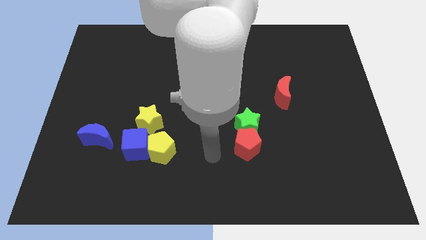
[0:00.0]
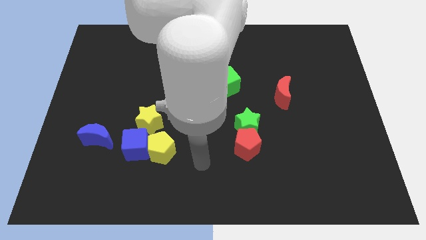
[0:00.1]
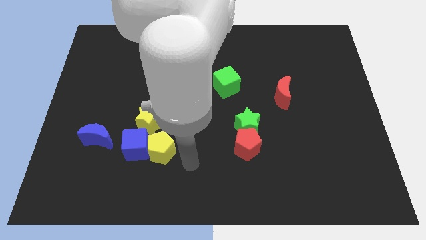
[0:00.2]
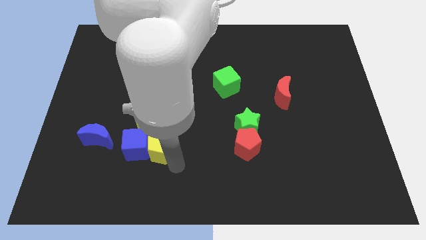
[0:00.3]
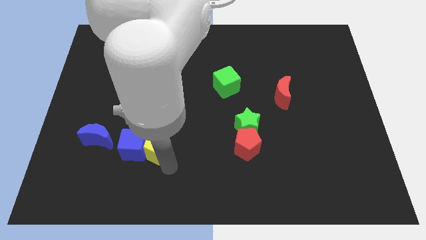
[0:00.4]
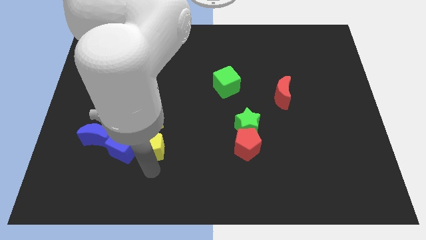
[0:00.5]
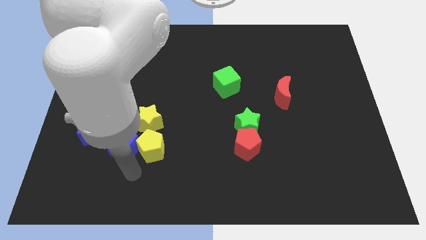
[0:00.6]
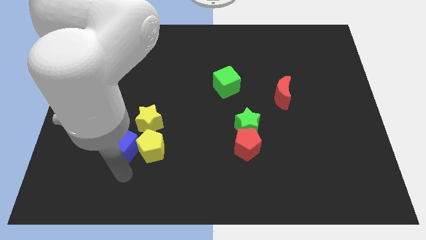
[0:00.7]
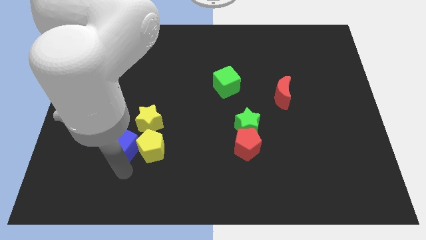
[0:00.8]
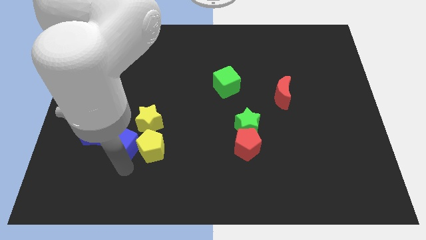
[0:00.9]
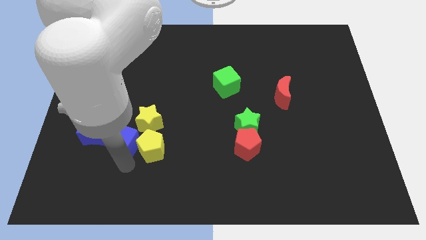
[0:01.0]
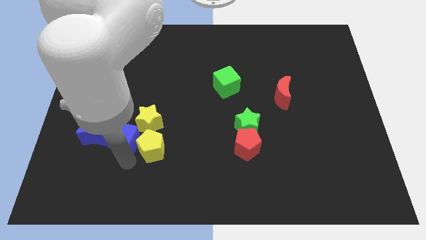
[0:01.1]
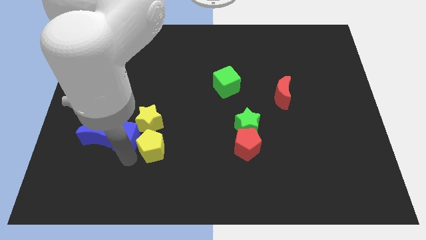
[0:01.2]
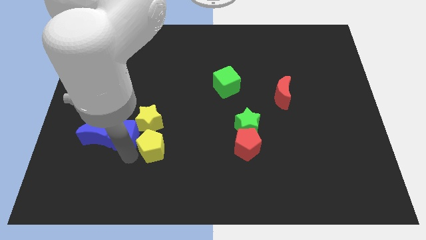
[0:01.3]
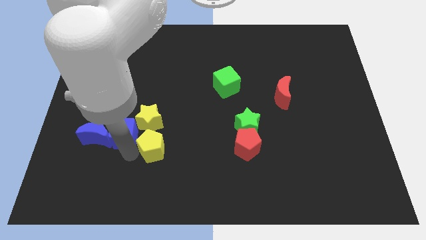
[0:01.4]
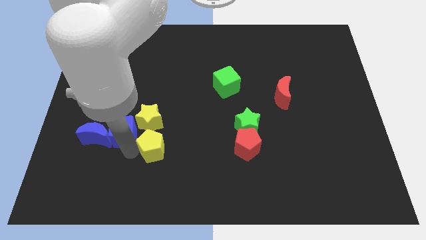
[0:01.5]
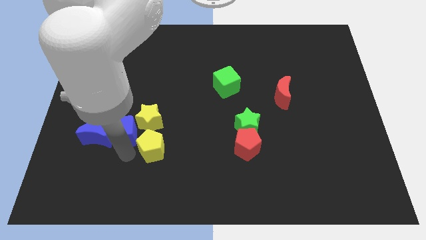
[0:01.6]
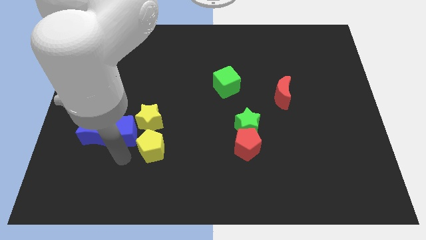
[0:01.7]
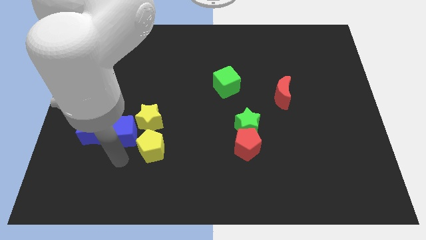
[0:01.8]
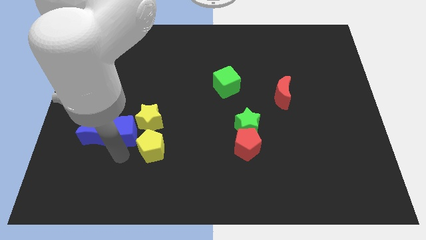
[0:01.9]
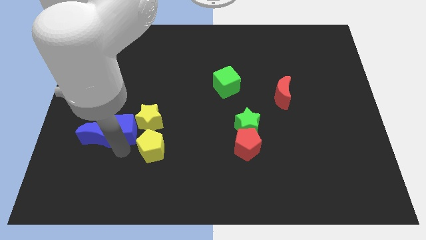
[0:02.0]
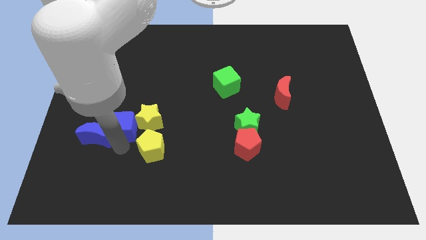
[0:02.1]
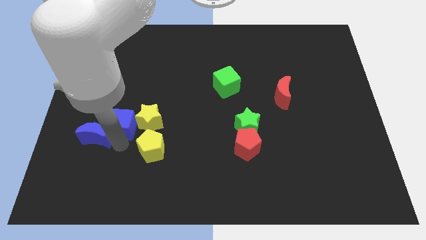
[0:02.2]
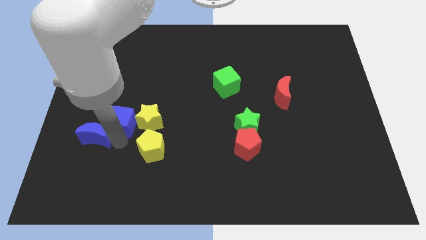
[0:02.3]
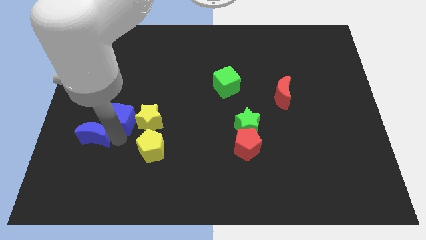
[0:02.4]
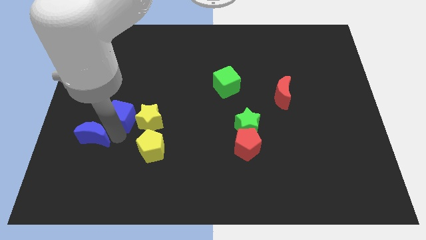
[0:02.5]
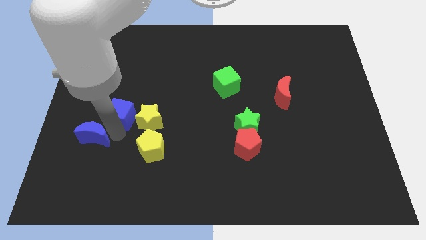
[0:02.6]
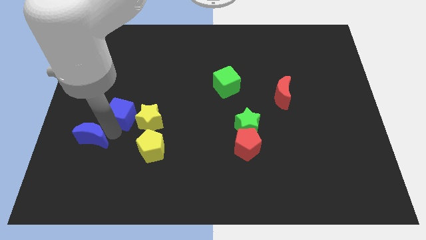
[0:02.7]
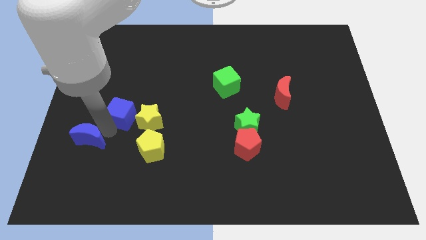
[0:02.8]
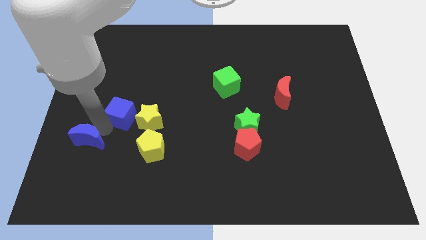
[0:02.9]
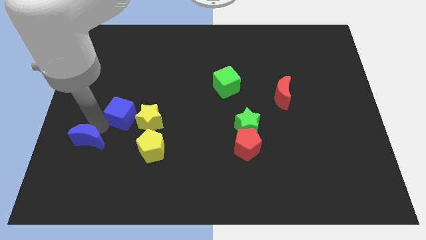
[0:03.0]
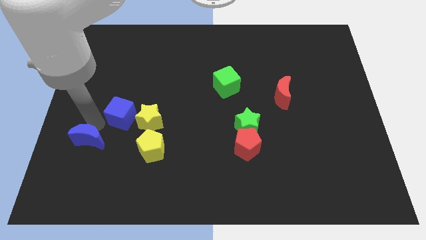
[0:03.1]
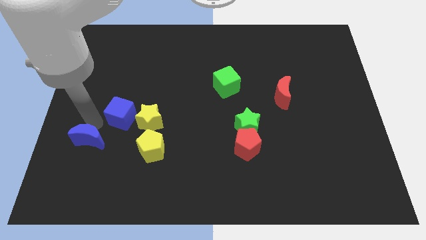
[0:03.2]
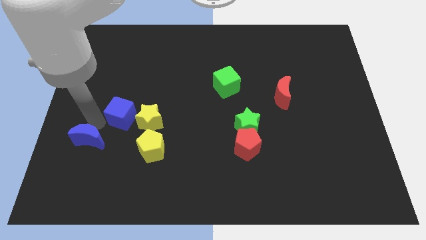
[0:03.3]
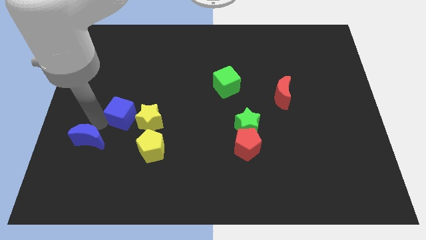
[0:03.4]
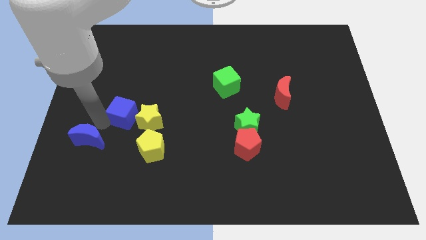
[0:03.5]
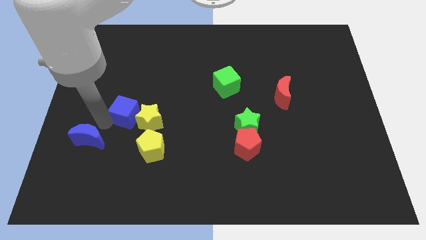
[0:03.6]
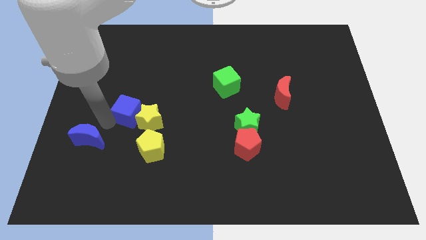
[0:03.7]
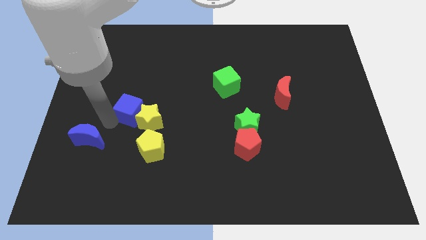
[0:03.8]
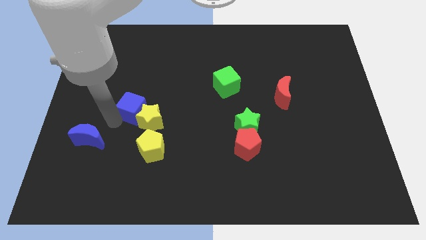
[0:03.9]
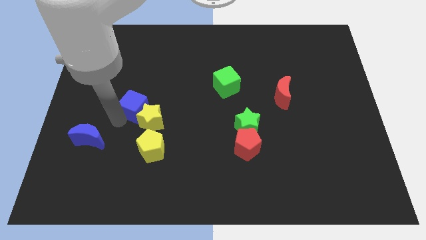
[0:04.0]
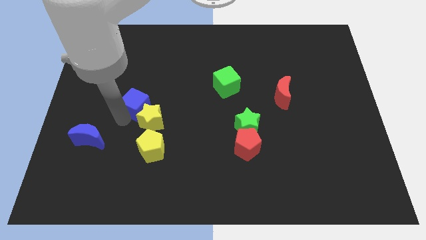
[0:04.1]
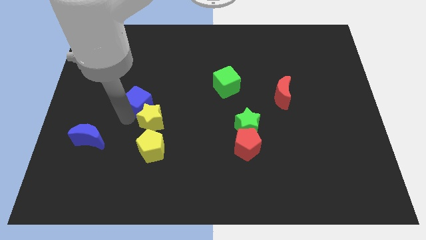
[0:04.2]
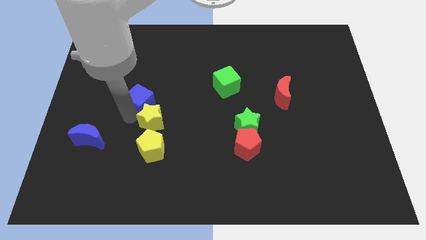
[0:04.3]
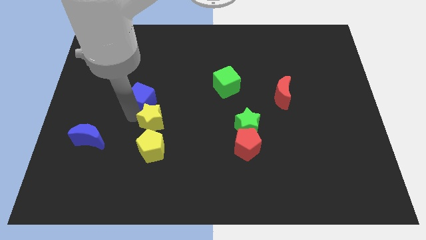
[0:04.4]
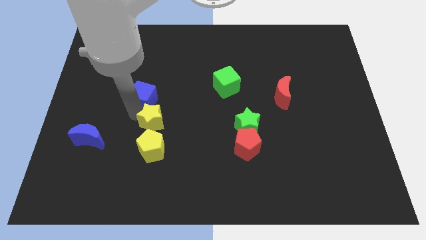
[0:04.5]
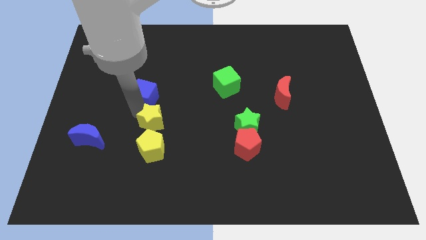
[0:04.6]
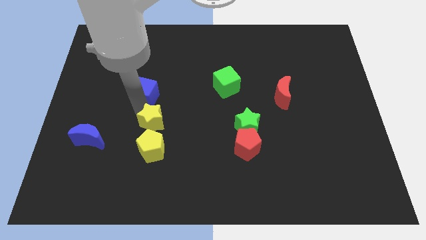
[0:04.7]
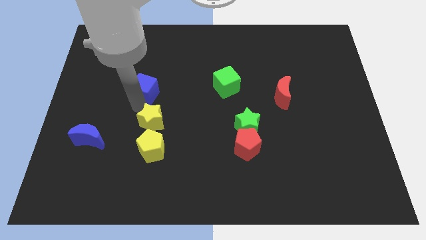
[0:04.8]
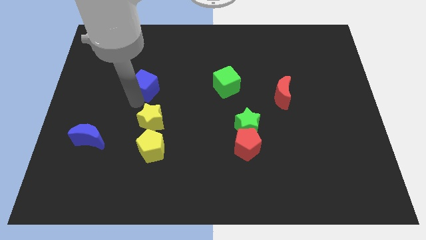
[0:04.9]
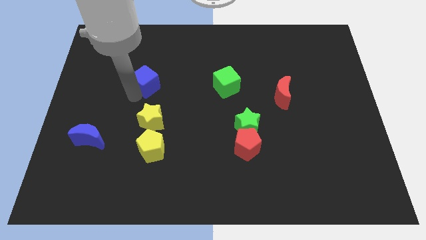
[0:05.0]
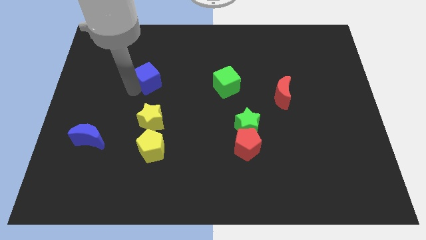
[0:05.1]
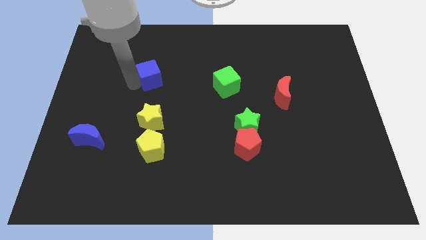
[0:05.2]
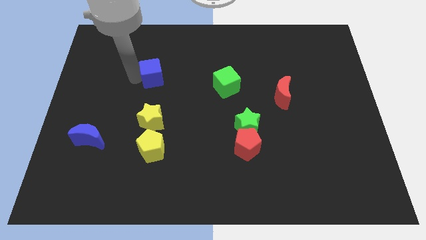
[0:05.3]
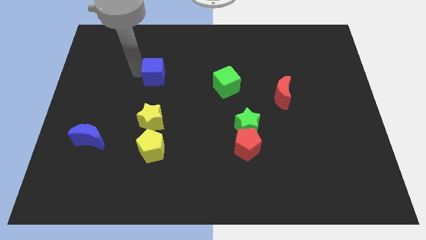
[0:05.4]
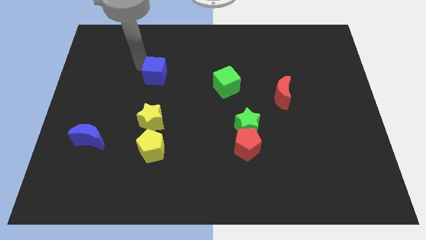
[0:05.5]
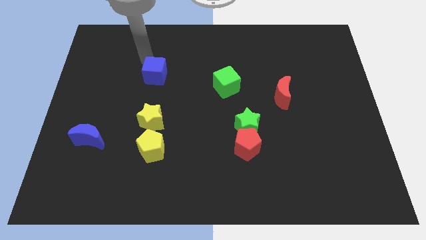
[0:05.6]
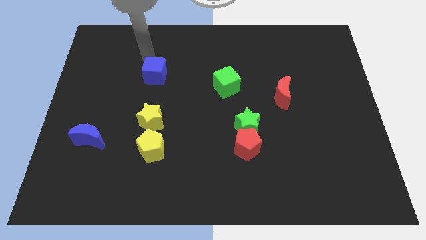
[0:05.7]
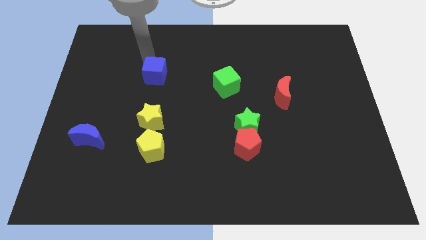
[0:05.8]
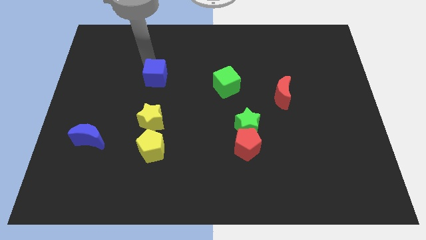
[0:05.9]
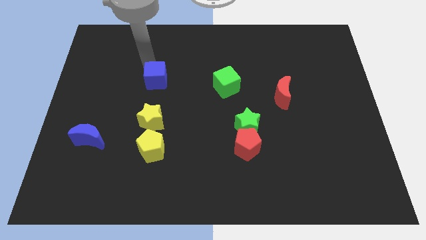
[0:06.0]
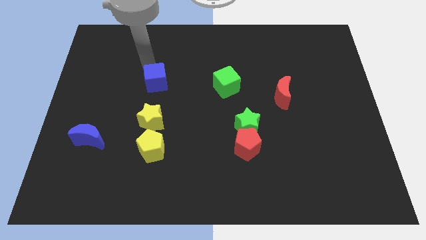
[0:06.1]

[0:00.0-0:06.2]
slide the blue cube a little bit up and then right

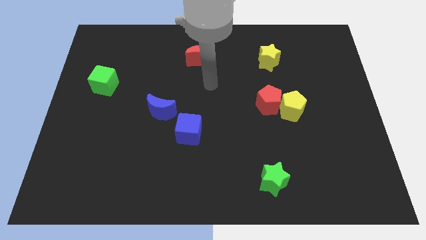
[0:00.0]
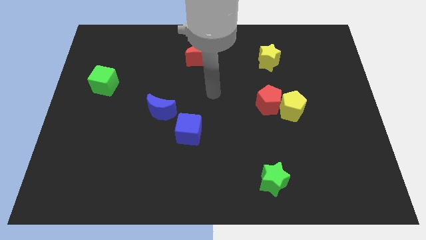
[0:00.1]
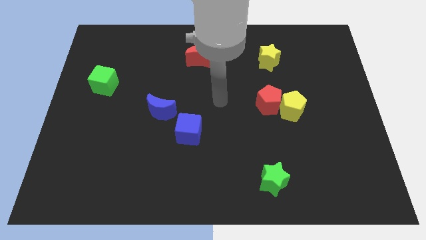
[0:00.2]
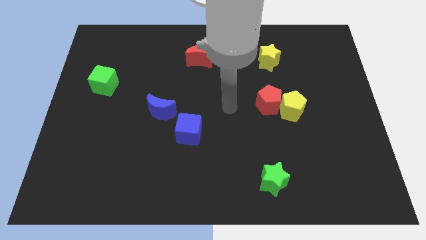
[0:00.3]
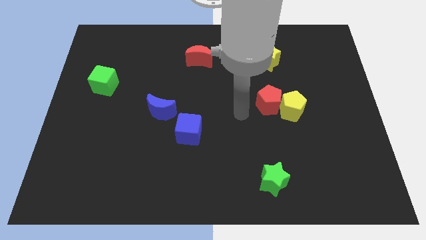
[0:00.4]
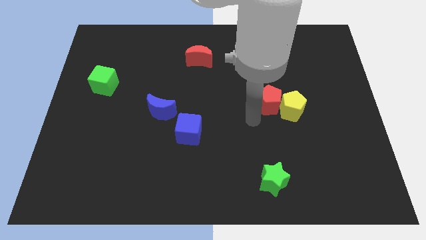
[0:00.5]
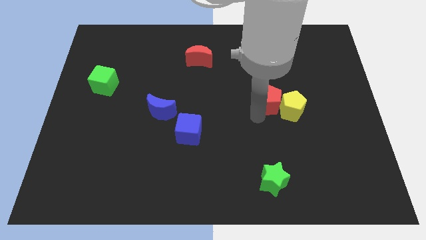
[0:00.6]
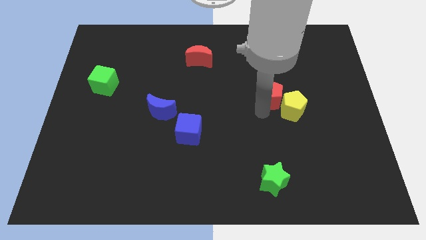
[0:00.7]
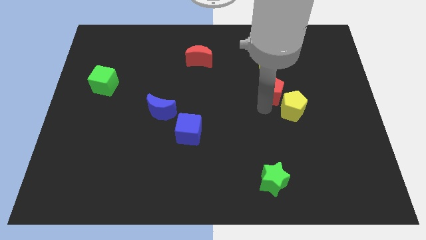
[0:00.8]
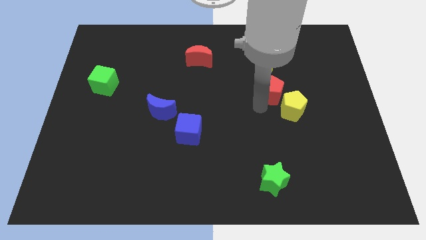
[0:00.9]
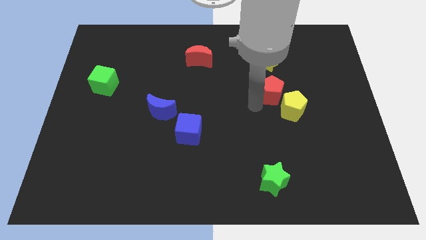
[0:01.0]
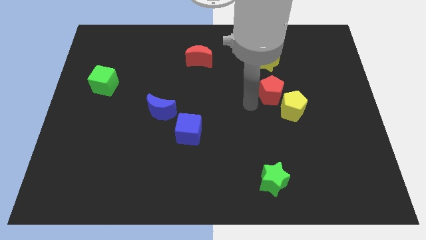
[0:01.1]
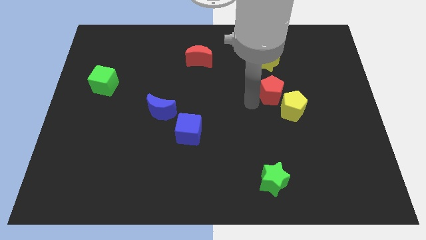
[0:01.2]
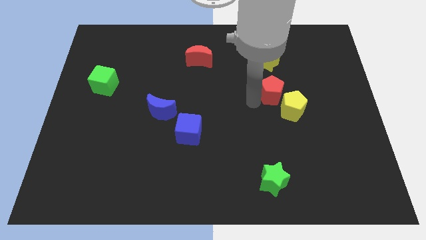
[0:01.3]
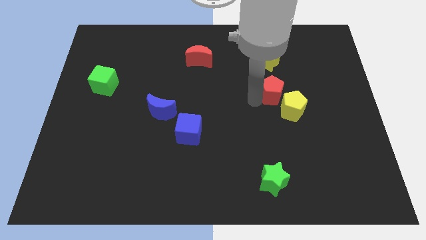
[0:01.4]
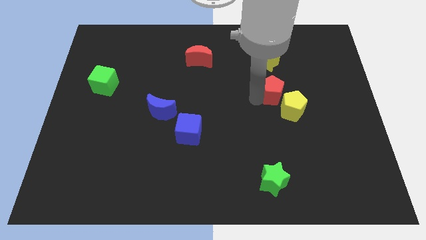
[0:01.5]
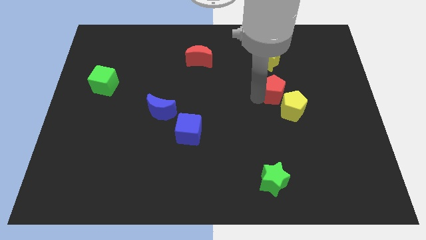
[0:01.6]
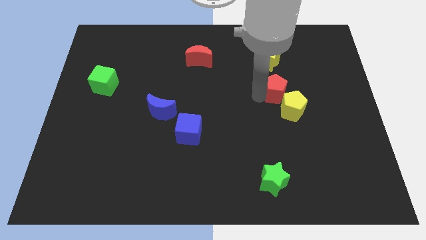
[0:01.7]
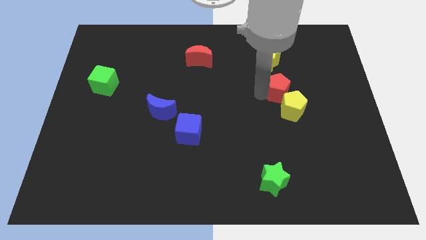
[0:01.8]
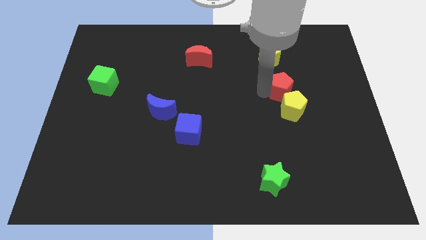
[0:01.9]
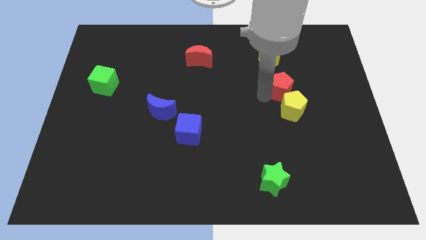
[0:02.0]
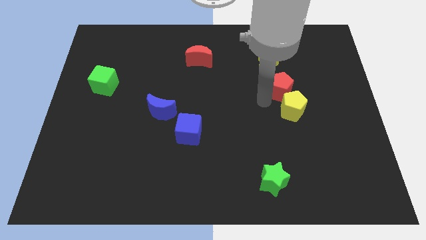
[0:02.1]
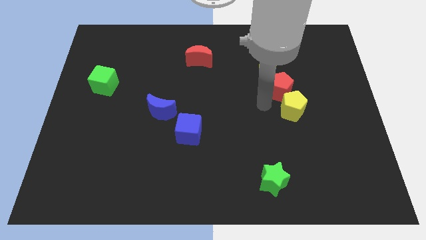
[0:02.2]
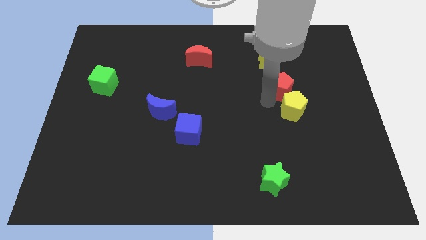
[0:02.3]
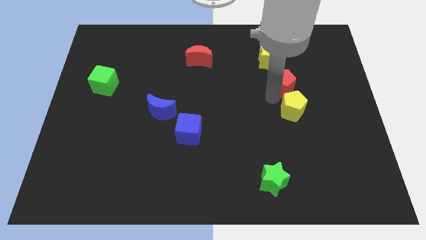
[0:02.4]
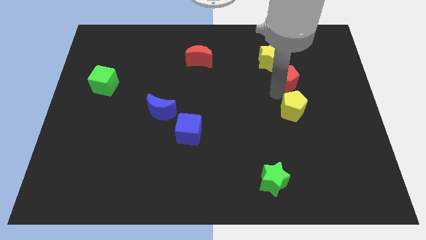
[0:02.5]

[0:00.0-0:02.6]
push the red pentagon a bit up and then right
